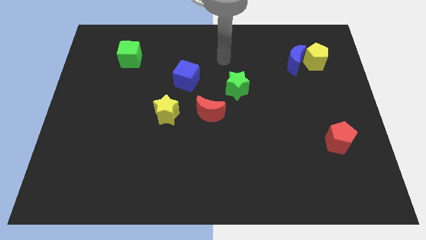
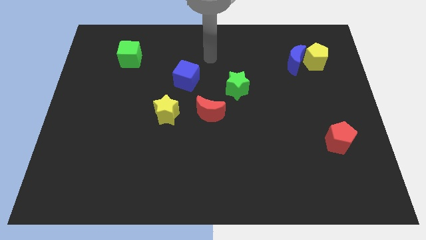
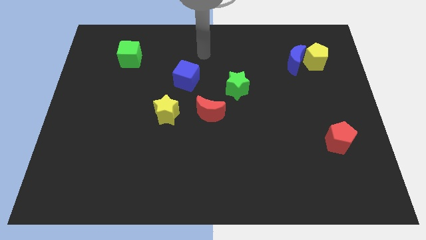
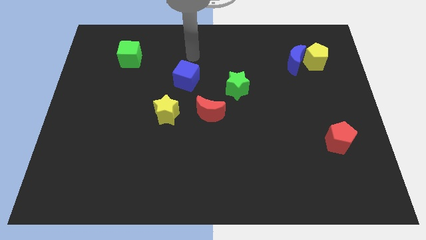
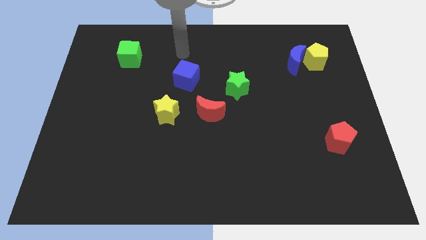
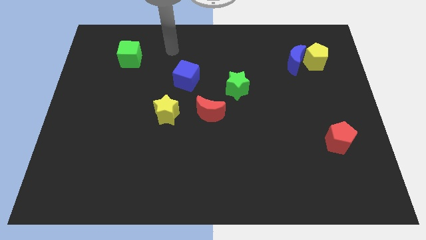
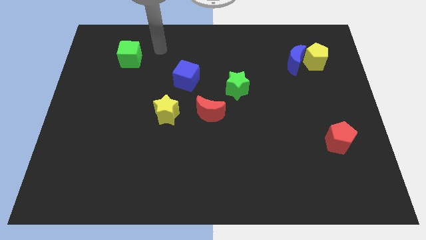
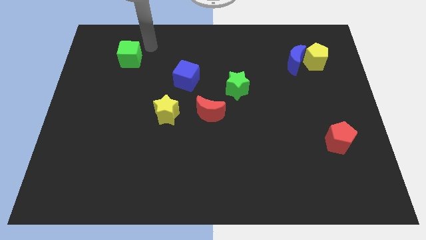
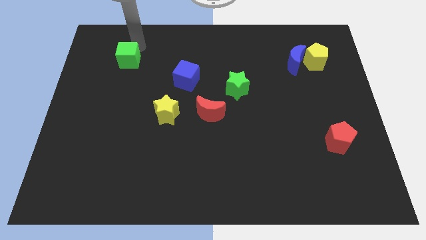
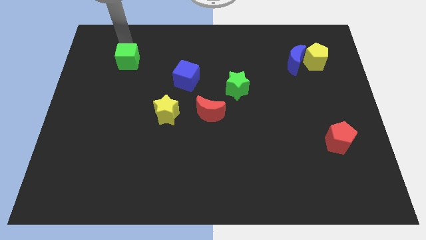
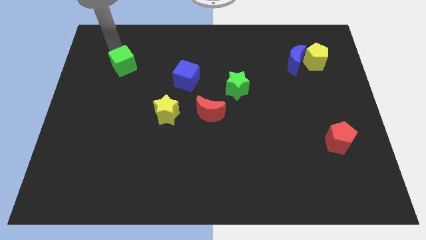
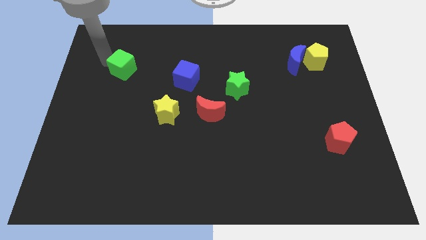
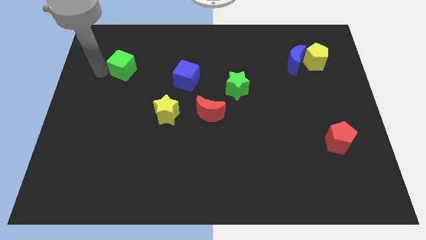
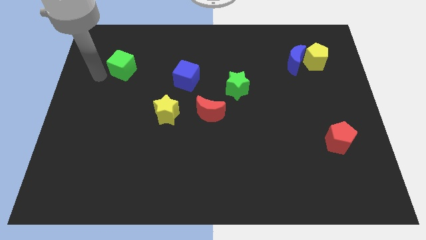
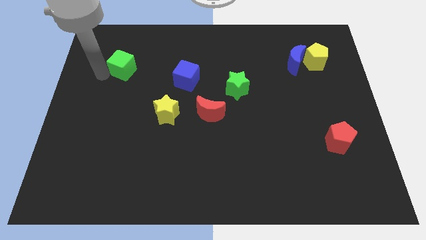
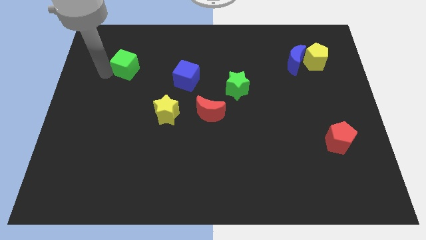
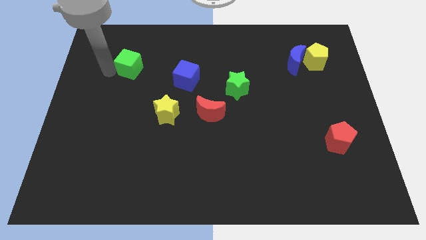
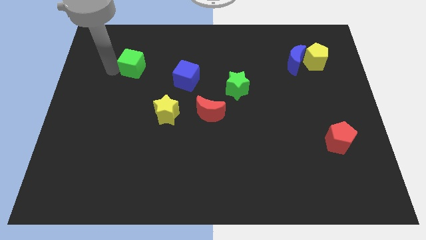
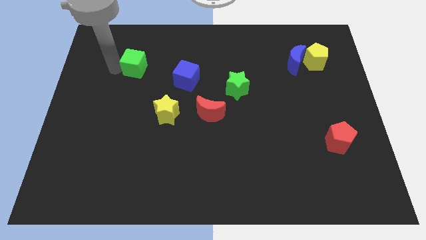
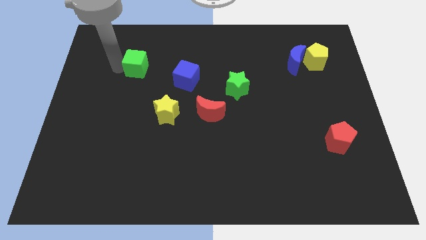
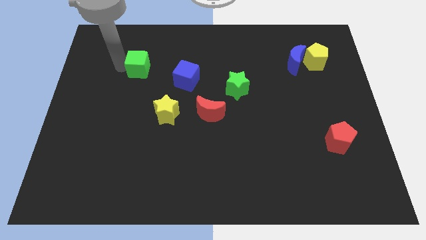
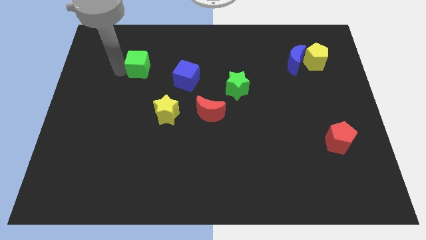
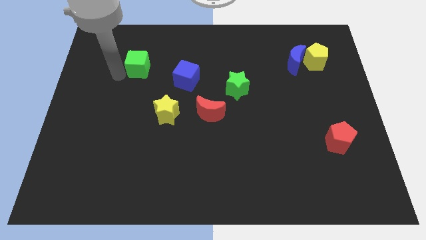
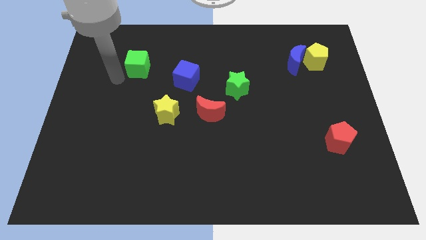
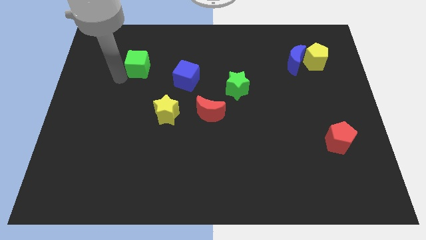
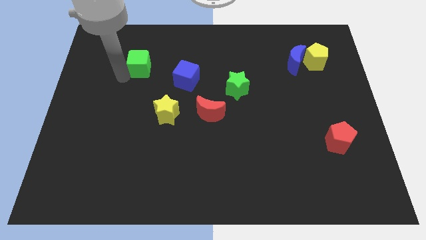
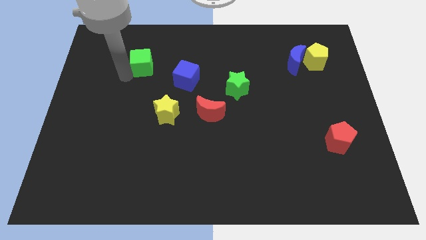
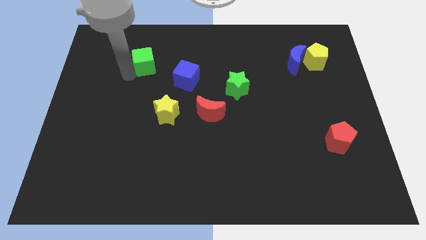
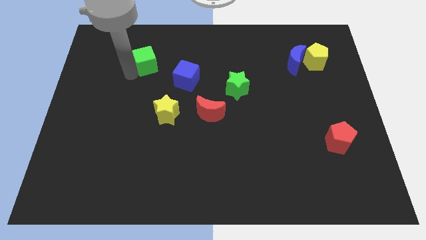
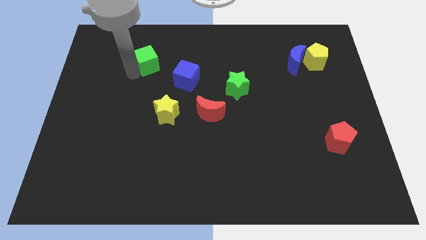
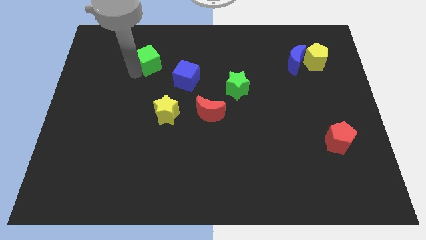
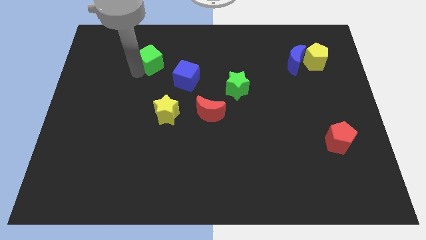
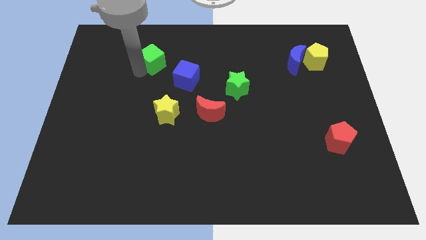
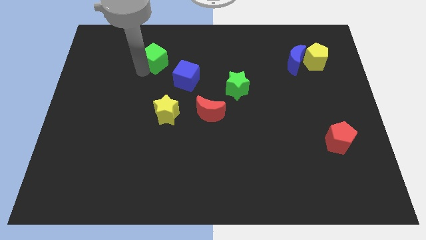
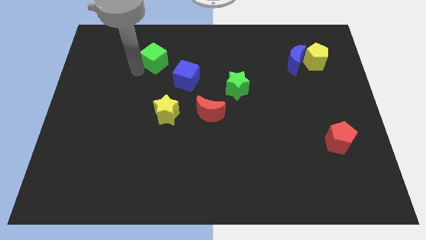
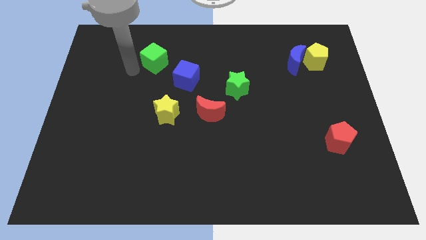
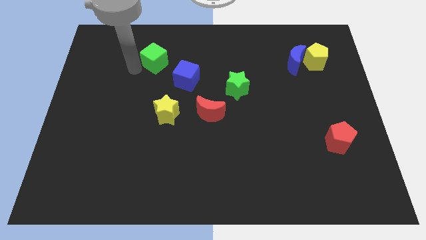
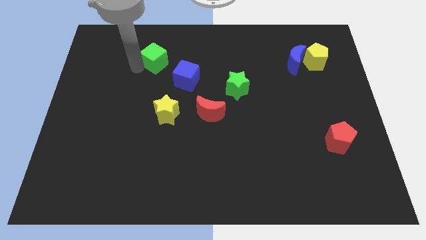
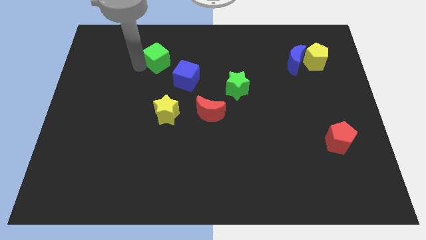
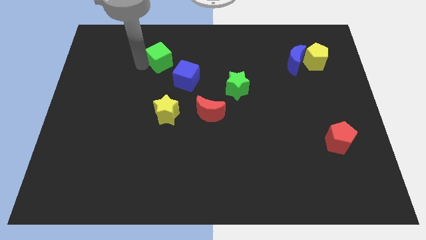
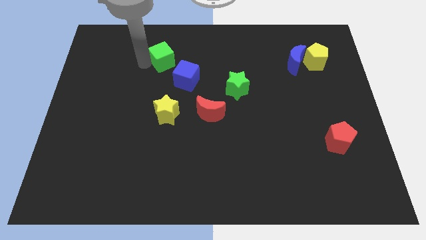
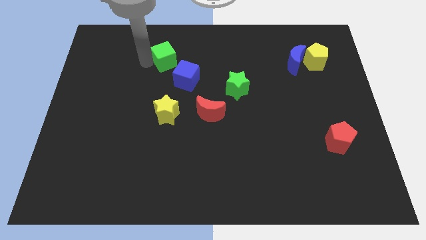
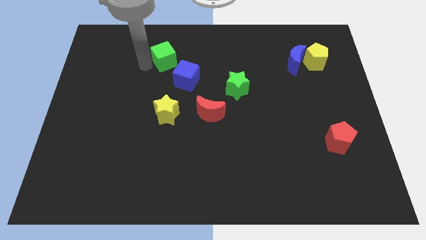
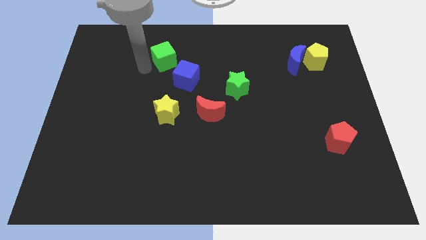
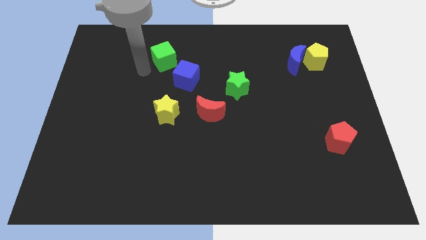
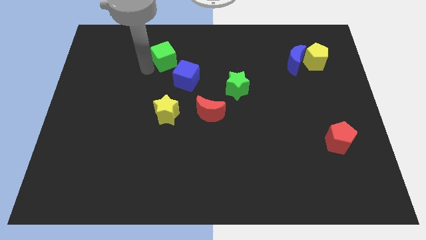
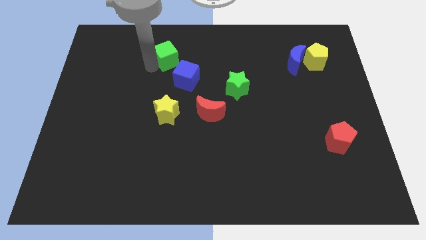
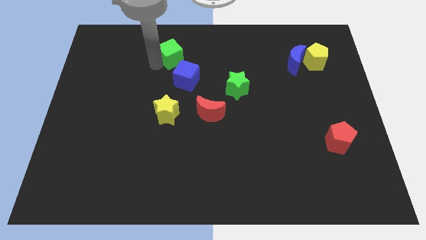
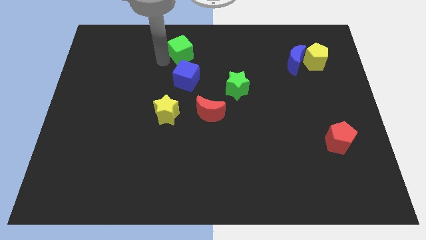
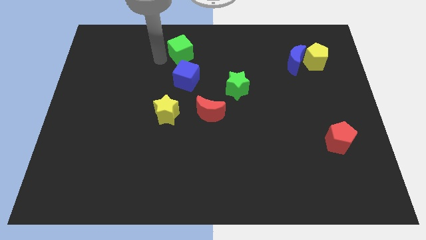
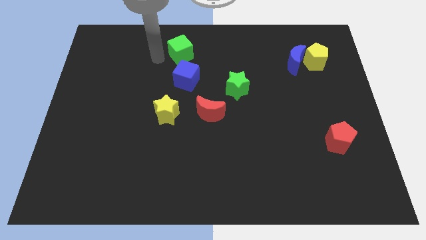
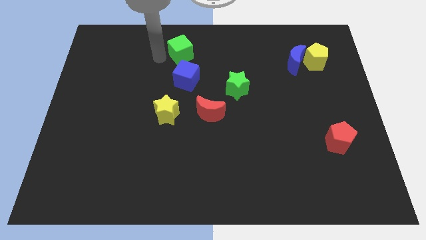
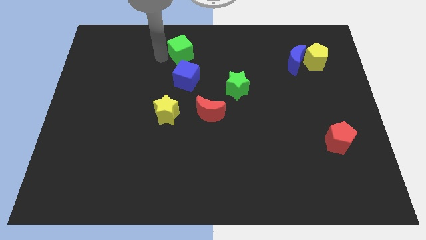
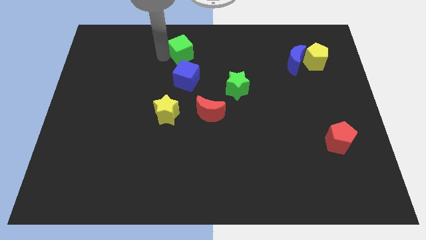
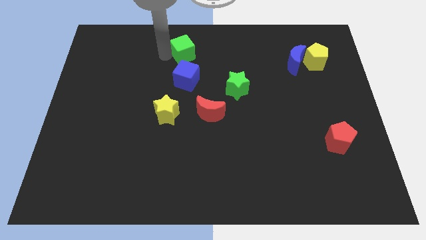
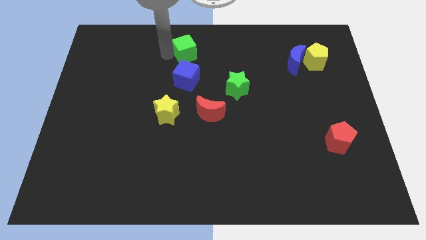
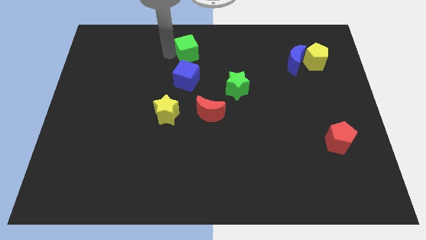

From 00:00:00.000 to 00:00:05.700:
push the green cube to the top
